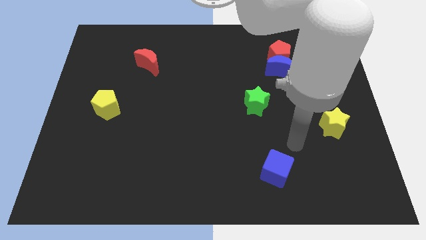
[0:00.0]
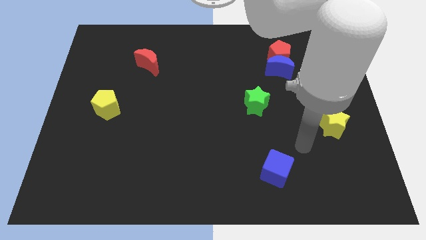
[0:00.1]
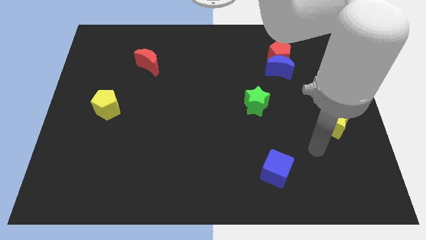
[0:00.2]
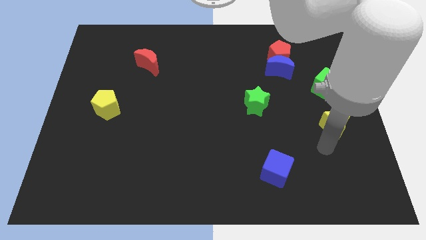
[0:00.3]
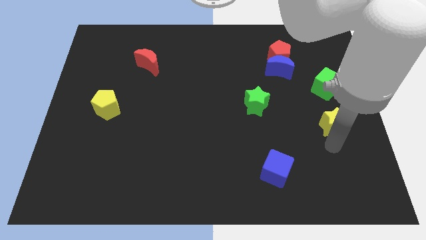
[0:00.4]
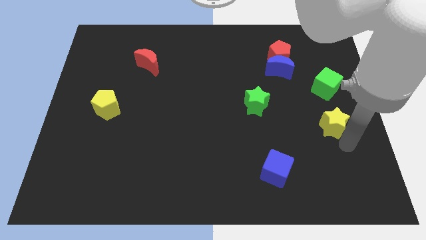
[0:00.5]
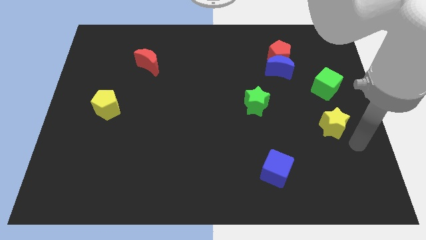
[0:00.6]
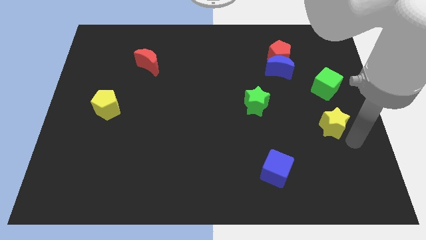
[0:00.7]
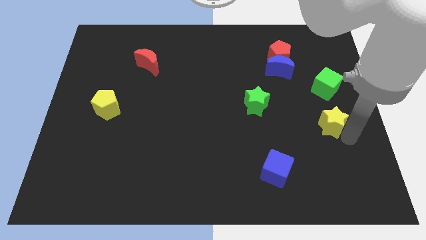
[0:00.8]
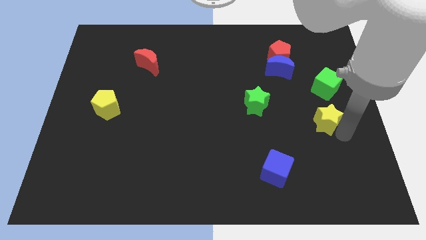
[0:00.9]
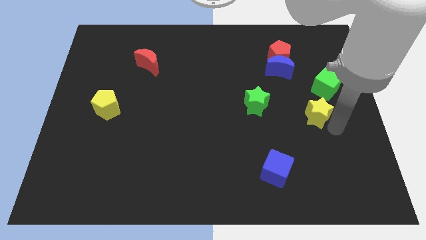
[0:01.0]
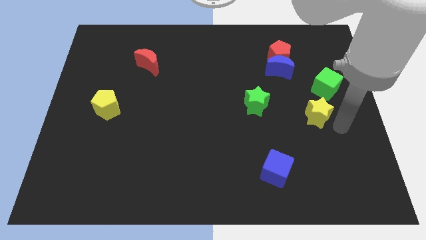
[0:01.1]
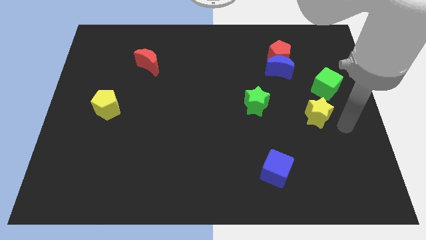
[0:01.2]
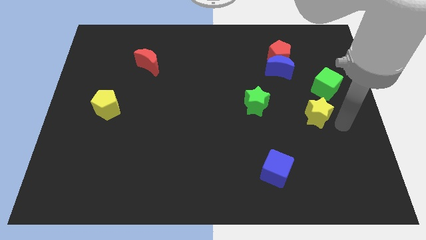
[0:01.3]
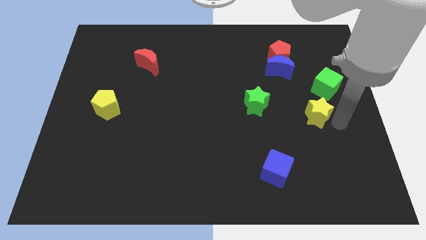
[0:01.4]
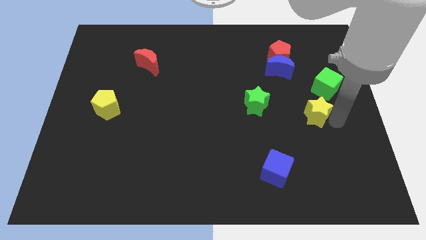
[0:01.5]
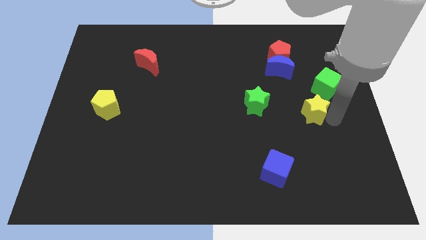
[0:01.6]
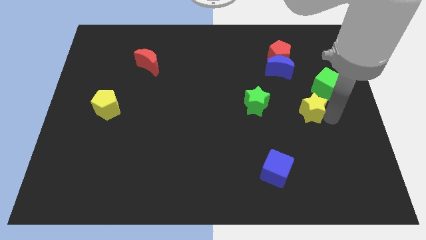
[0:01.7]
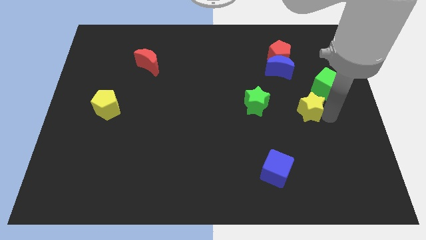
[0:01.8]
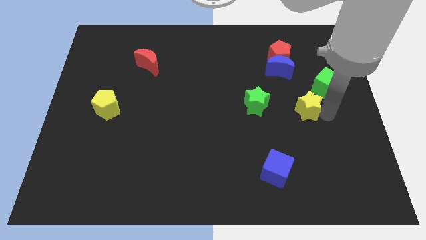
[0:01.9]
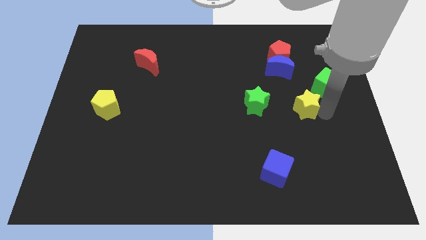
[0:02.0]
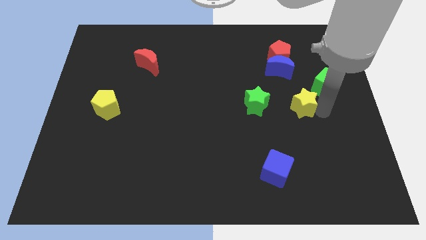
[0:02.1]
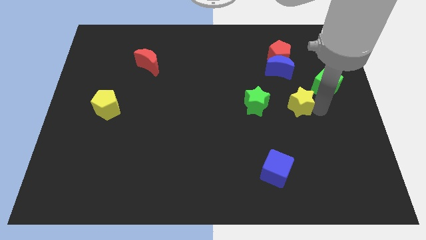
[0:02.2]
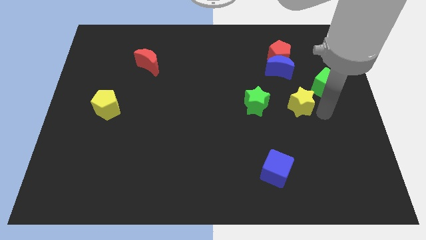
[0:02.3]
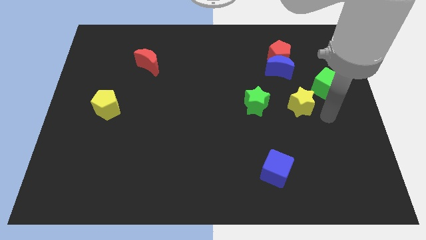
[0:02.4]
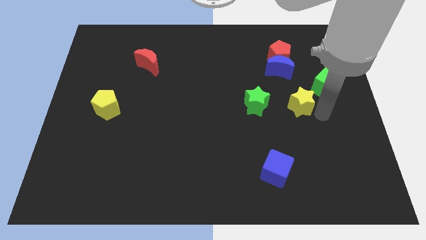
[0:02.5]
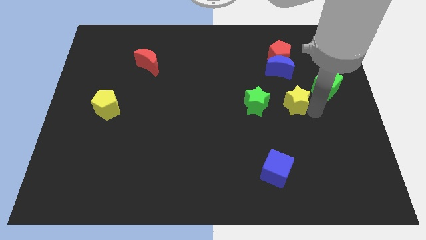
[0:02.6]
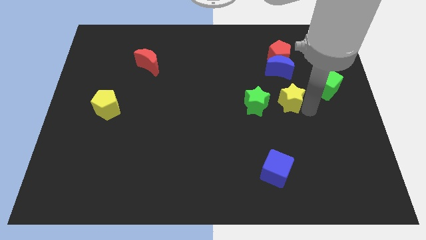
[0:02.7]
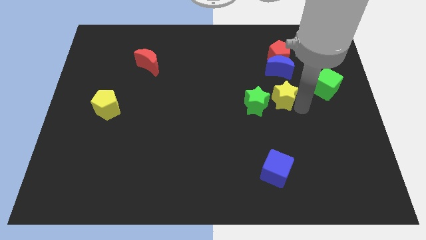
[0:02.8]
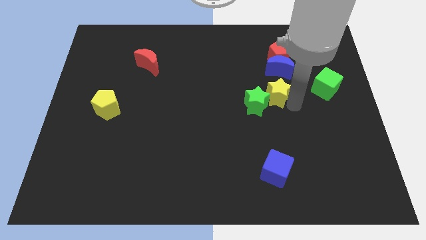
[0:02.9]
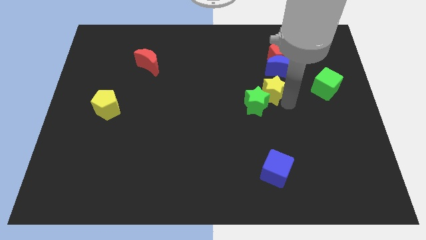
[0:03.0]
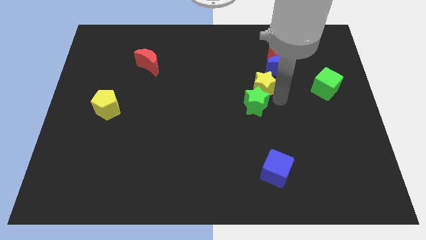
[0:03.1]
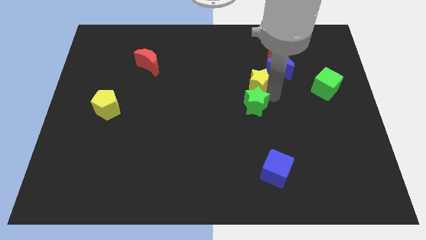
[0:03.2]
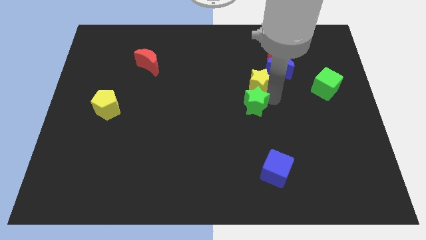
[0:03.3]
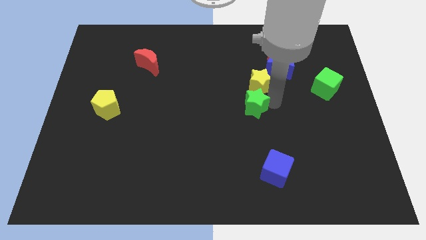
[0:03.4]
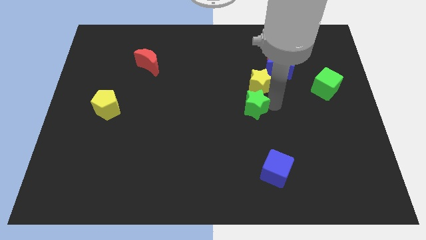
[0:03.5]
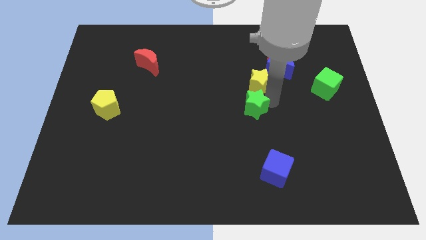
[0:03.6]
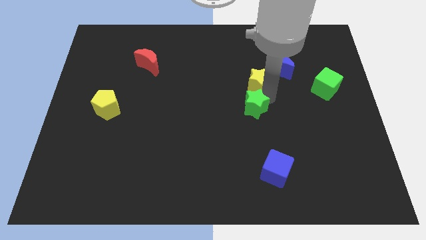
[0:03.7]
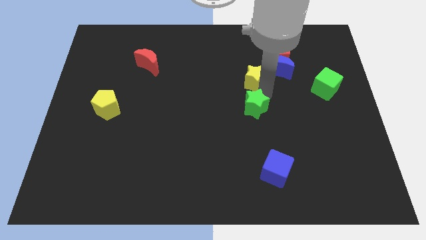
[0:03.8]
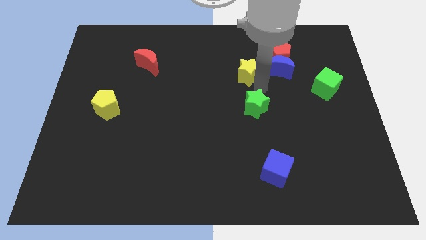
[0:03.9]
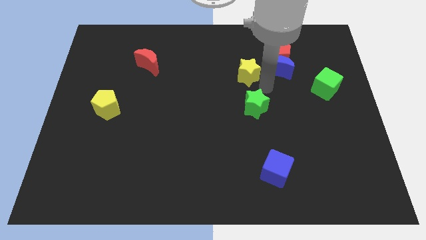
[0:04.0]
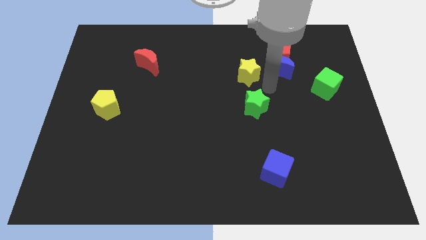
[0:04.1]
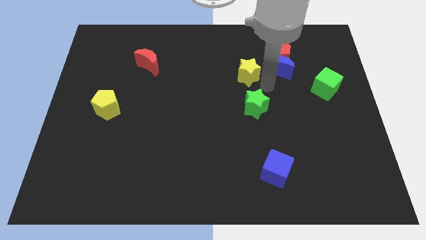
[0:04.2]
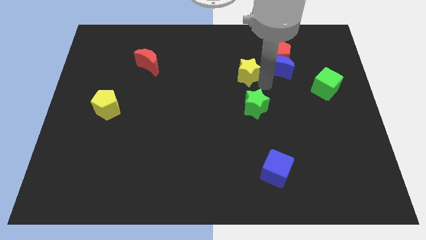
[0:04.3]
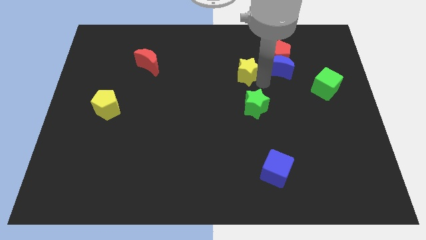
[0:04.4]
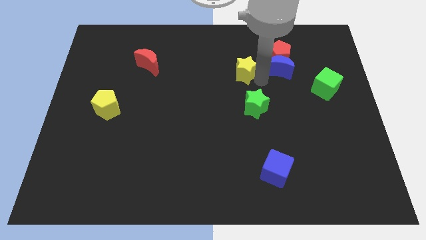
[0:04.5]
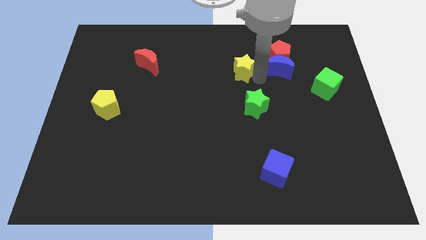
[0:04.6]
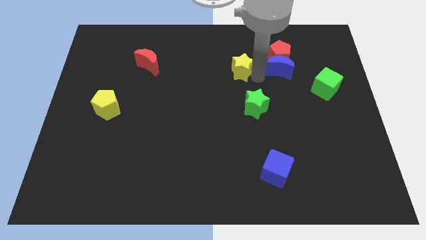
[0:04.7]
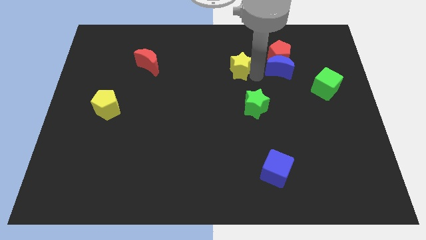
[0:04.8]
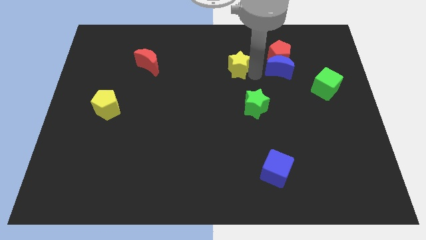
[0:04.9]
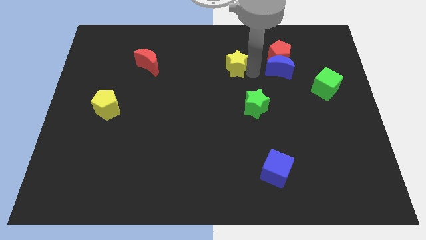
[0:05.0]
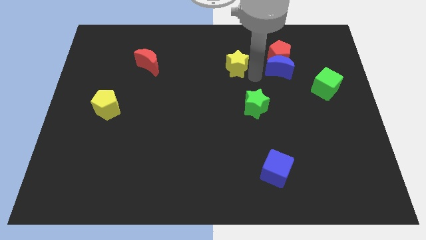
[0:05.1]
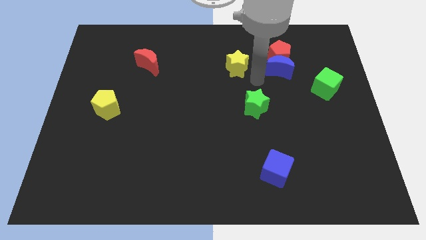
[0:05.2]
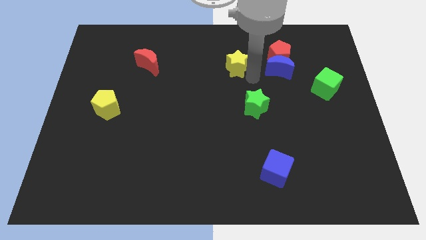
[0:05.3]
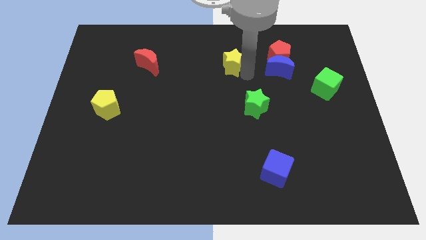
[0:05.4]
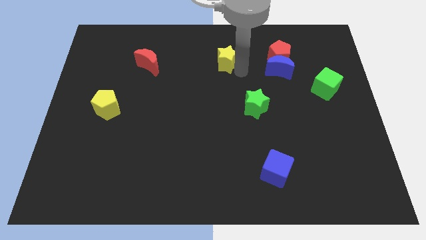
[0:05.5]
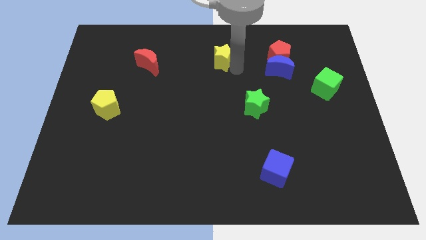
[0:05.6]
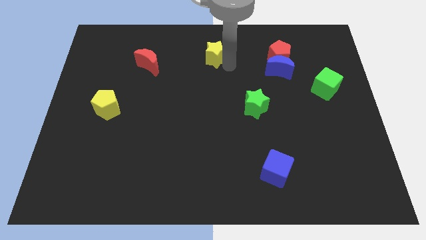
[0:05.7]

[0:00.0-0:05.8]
move the yellow star to the towards your base
